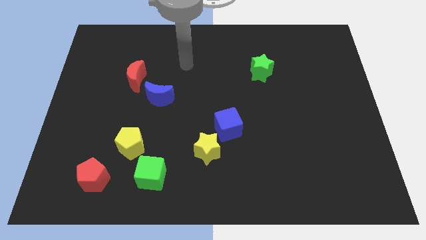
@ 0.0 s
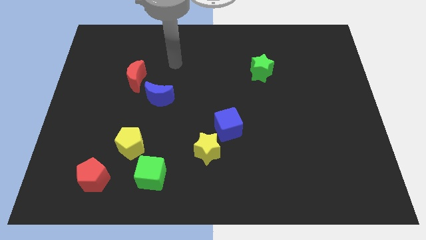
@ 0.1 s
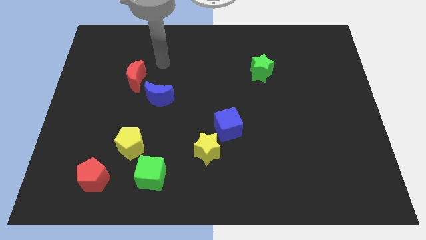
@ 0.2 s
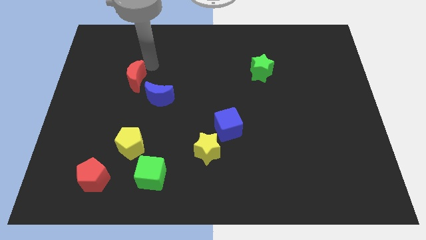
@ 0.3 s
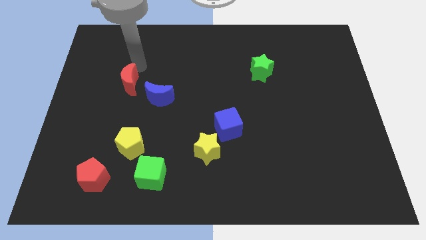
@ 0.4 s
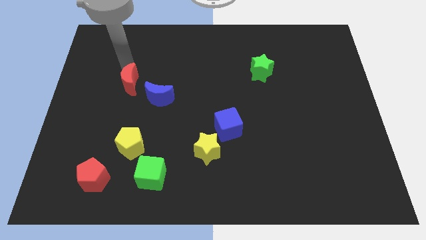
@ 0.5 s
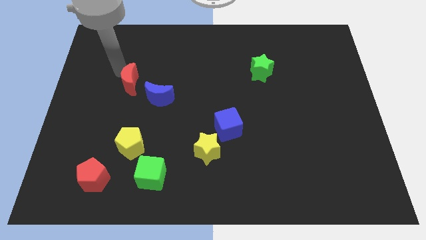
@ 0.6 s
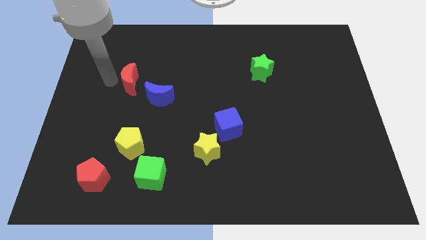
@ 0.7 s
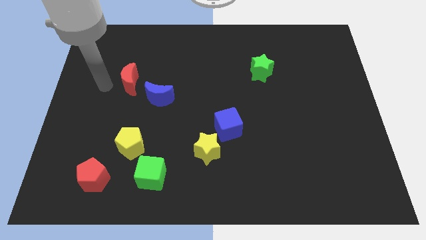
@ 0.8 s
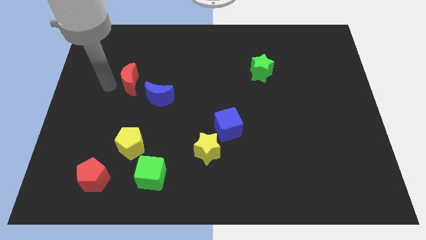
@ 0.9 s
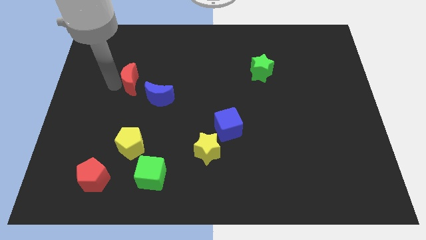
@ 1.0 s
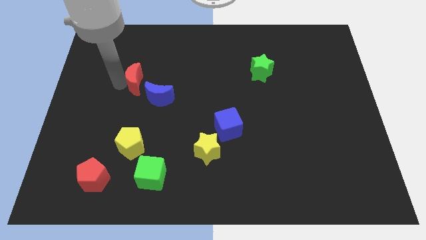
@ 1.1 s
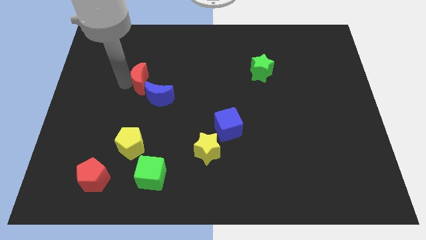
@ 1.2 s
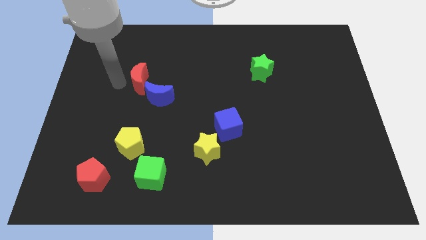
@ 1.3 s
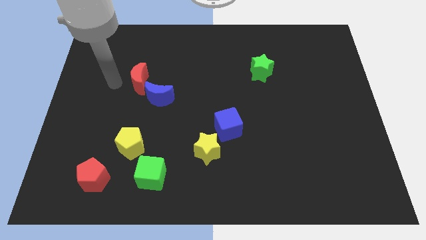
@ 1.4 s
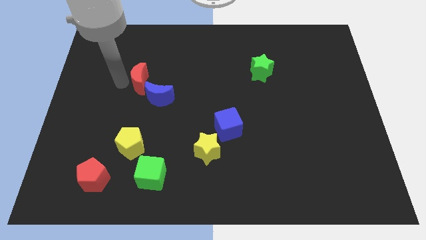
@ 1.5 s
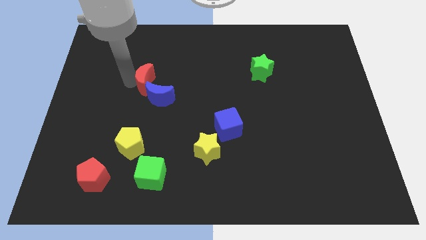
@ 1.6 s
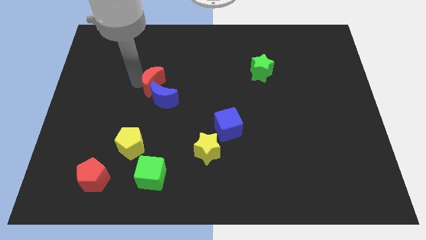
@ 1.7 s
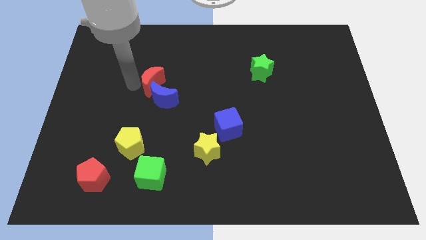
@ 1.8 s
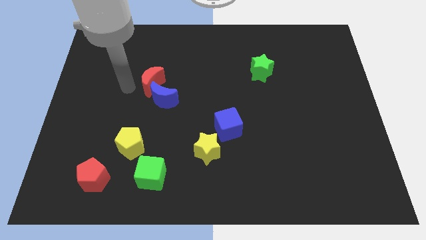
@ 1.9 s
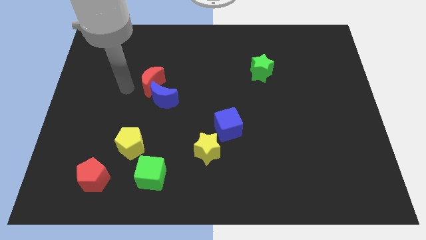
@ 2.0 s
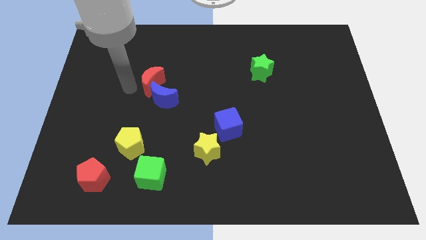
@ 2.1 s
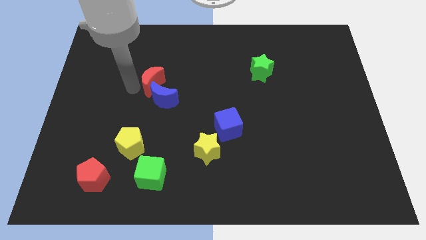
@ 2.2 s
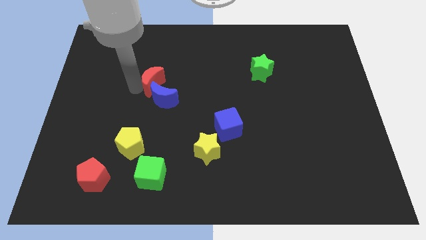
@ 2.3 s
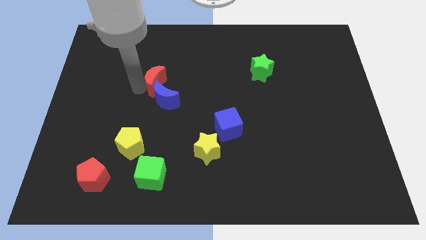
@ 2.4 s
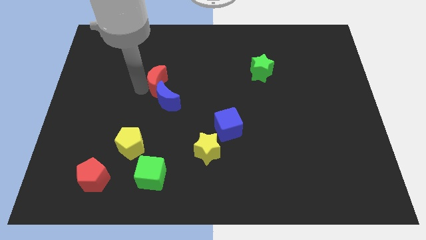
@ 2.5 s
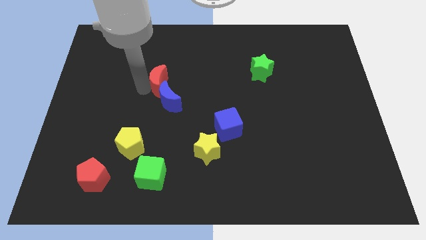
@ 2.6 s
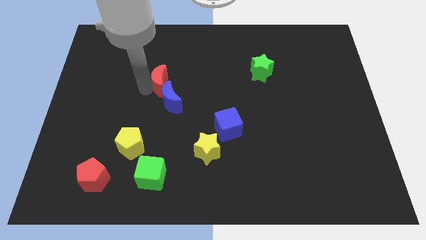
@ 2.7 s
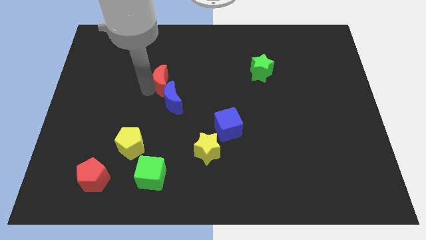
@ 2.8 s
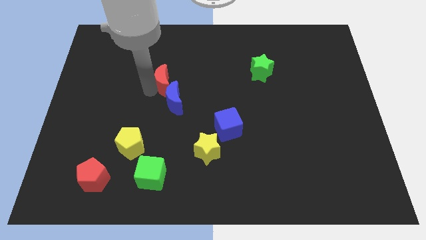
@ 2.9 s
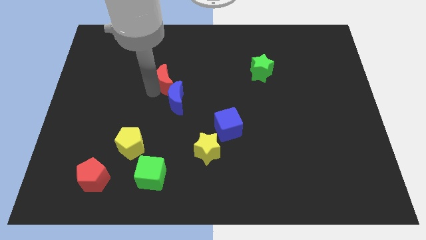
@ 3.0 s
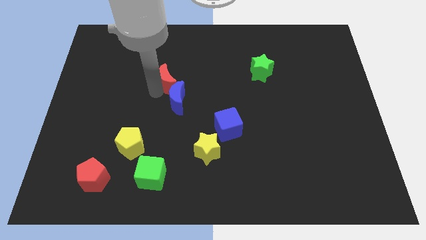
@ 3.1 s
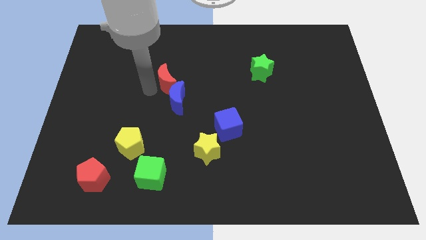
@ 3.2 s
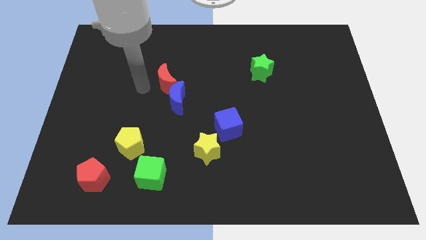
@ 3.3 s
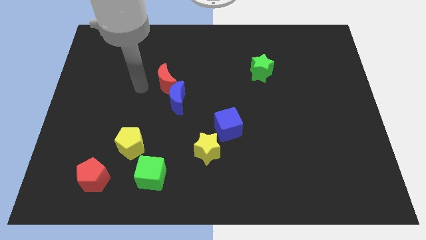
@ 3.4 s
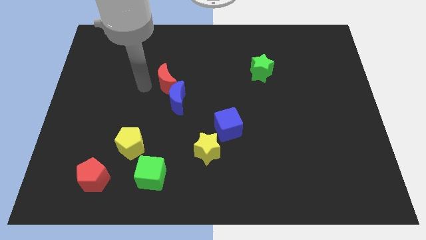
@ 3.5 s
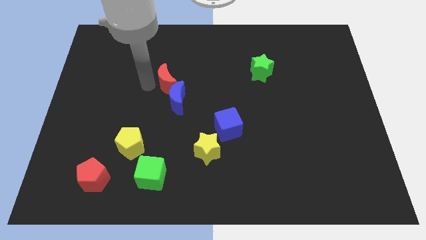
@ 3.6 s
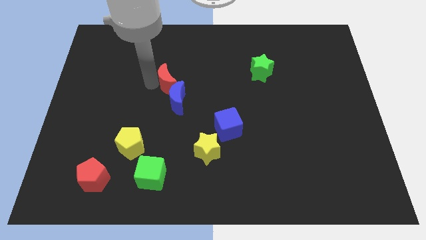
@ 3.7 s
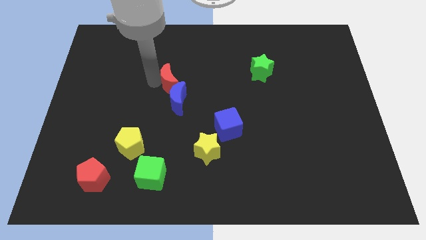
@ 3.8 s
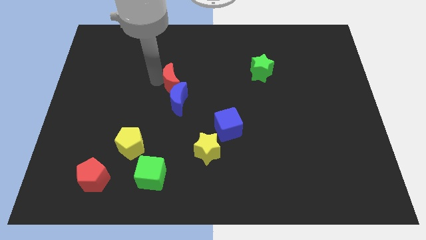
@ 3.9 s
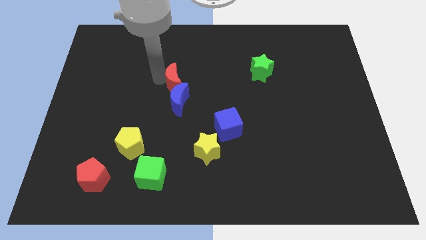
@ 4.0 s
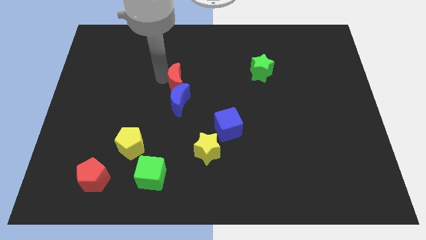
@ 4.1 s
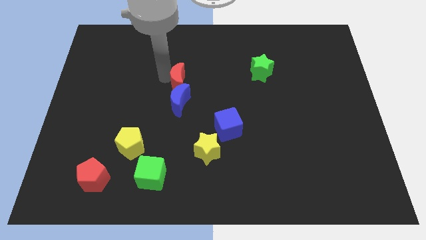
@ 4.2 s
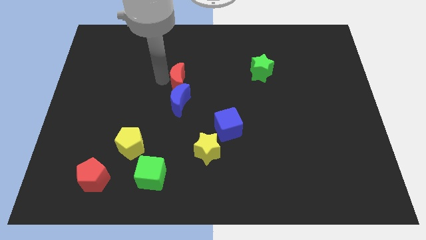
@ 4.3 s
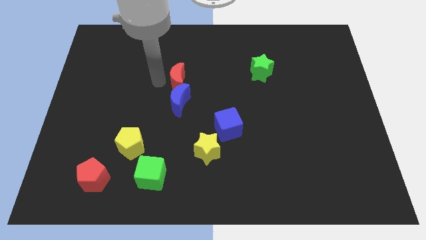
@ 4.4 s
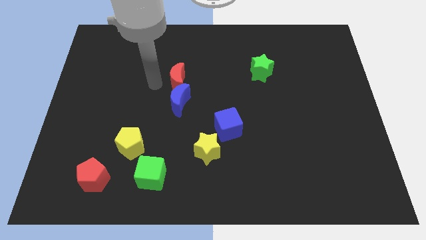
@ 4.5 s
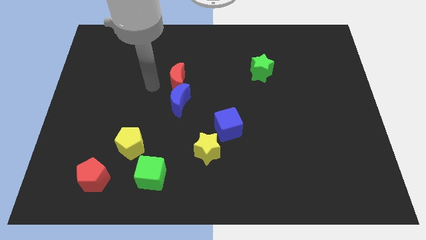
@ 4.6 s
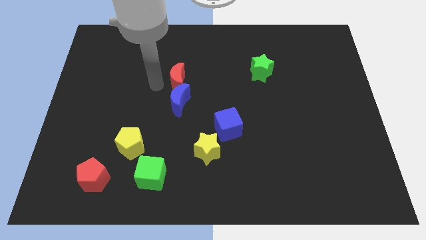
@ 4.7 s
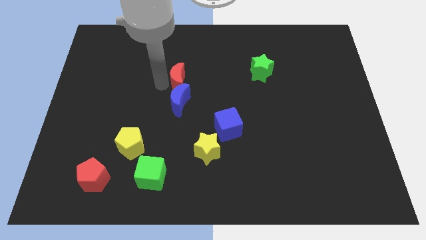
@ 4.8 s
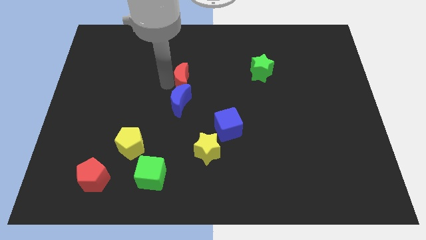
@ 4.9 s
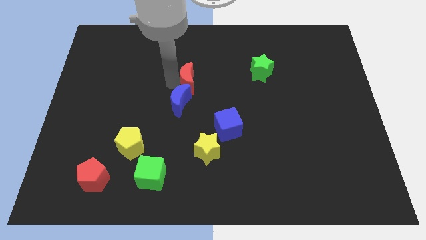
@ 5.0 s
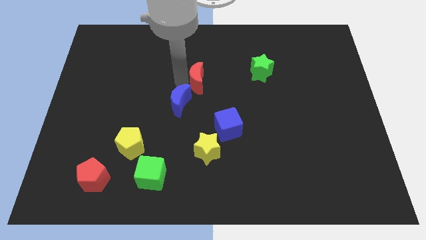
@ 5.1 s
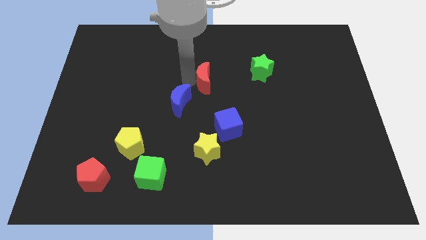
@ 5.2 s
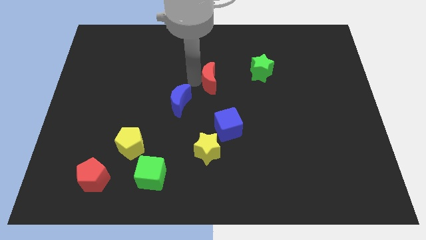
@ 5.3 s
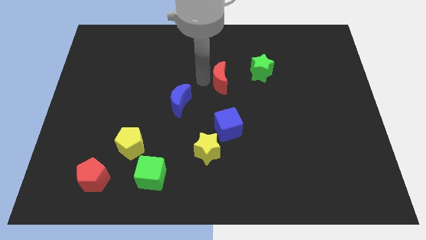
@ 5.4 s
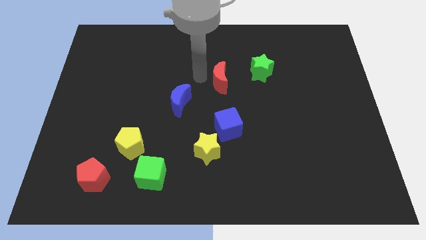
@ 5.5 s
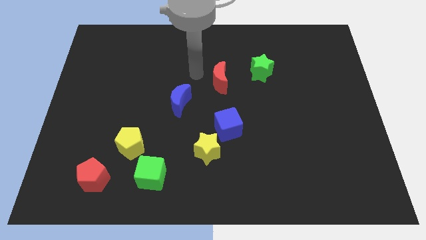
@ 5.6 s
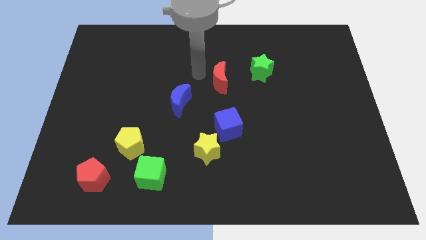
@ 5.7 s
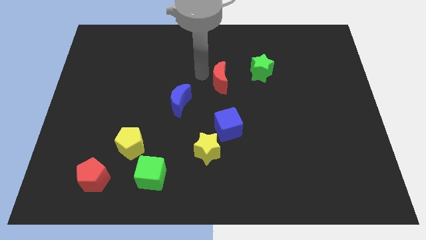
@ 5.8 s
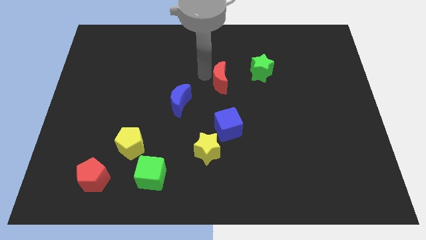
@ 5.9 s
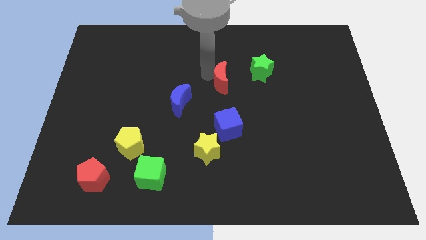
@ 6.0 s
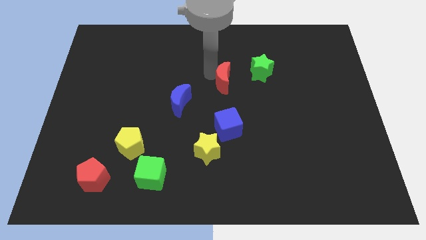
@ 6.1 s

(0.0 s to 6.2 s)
slide the red moon diagonally down and to the left of the green star

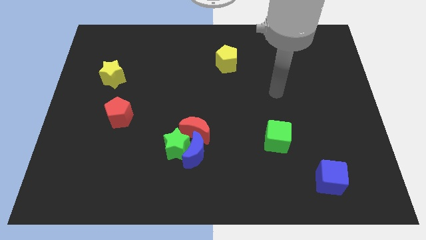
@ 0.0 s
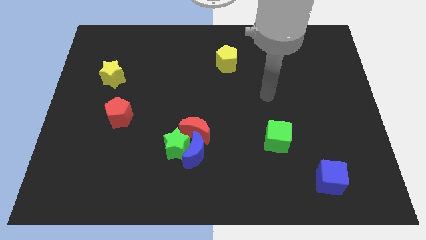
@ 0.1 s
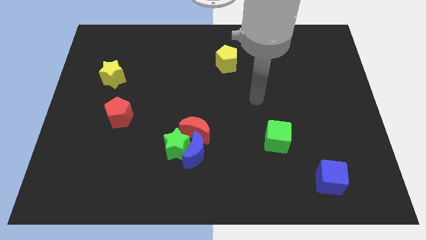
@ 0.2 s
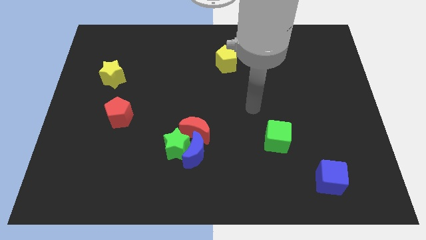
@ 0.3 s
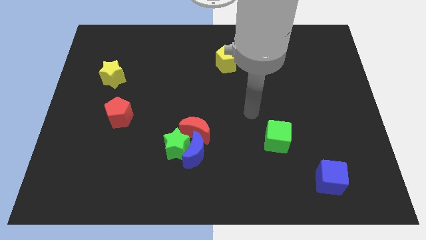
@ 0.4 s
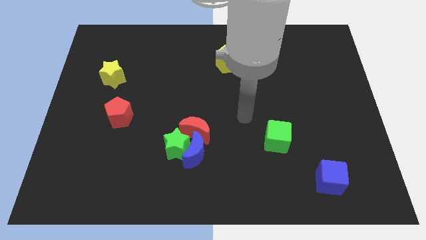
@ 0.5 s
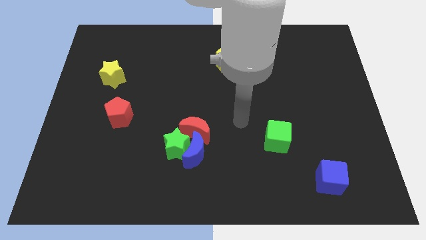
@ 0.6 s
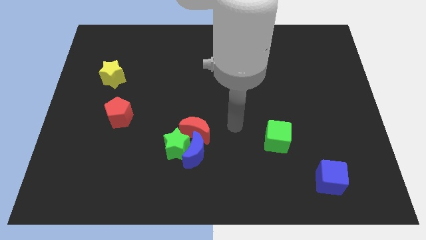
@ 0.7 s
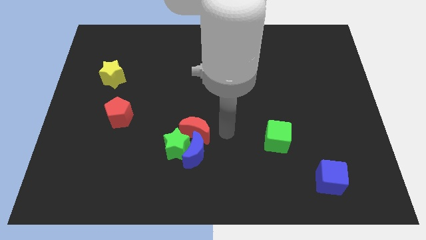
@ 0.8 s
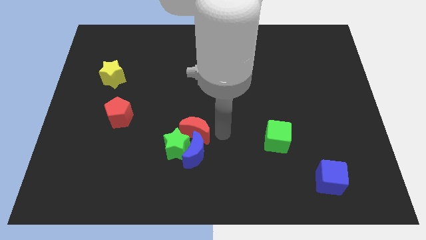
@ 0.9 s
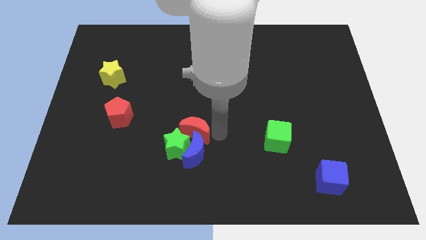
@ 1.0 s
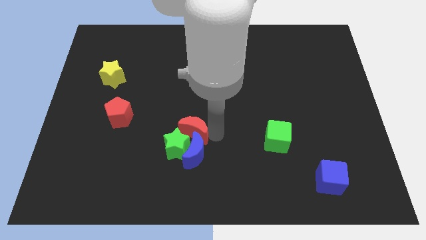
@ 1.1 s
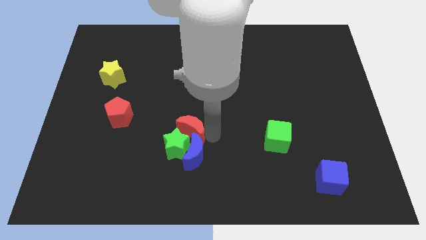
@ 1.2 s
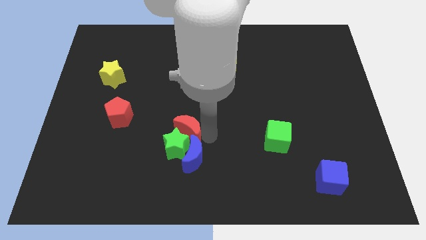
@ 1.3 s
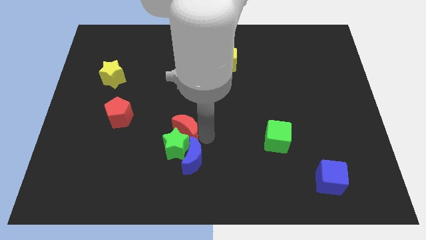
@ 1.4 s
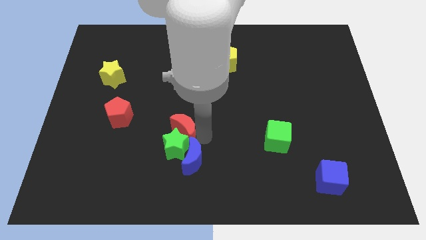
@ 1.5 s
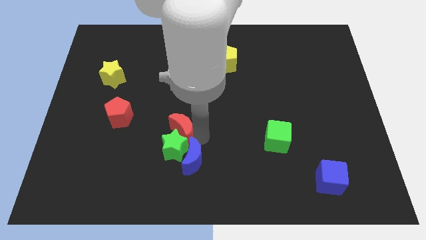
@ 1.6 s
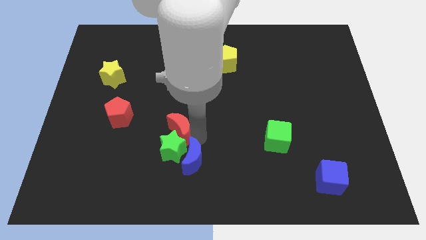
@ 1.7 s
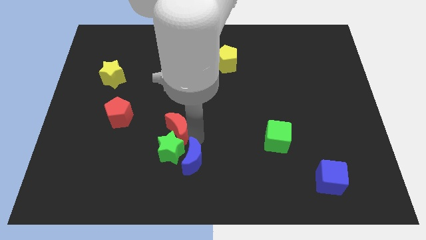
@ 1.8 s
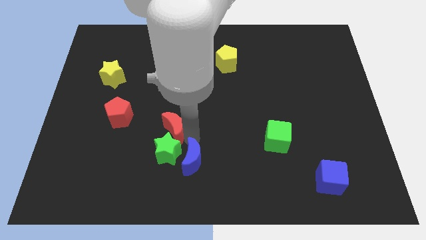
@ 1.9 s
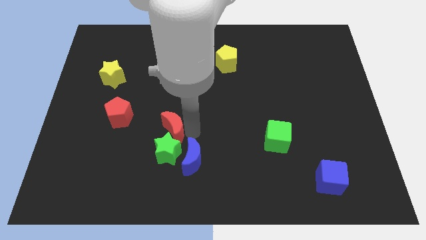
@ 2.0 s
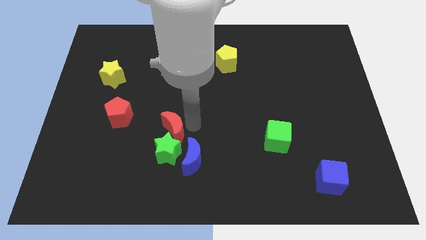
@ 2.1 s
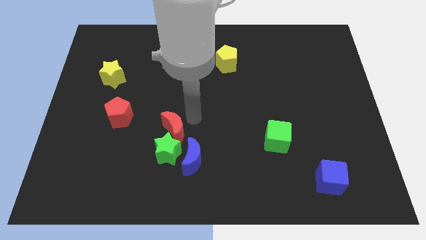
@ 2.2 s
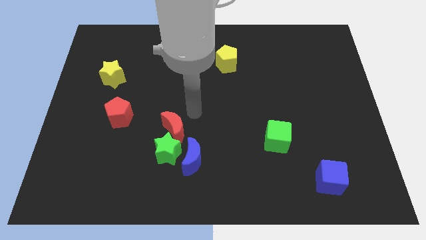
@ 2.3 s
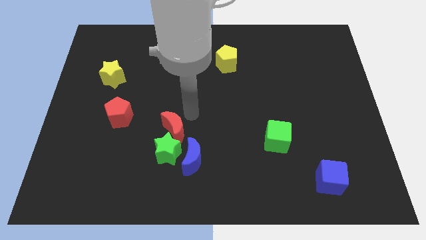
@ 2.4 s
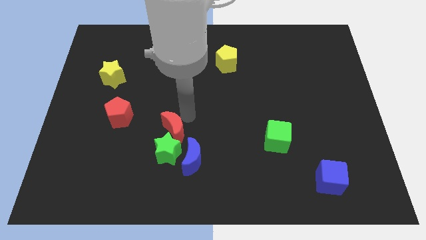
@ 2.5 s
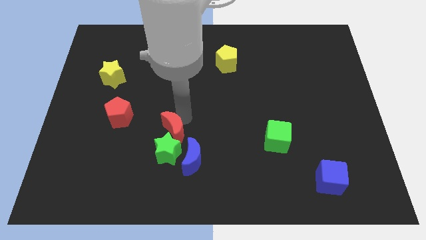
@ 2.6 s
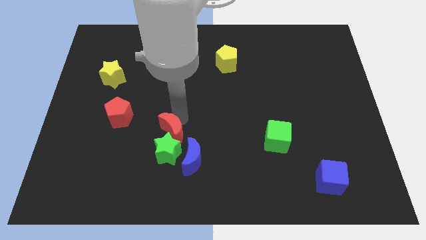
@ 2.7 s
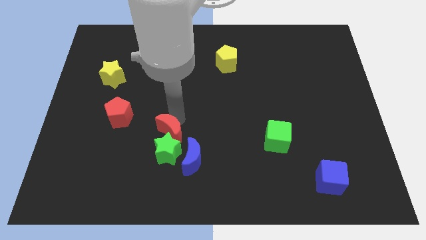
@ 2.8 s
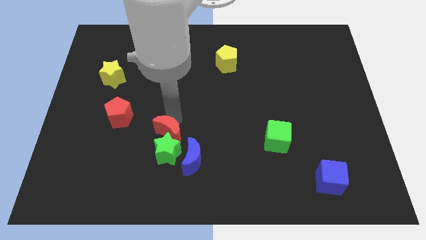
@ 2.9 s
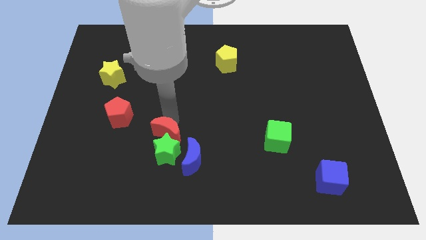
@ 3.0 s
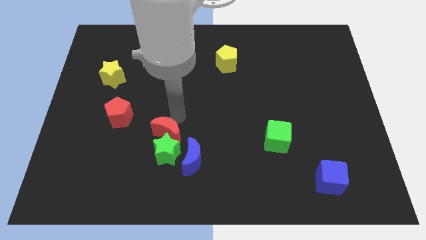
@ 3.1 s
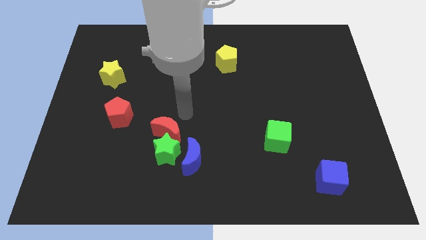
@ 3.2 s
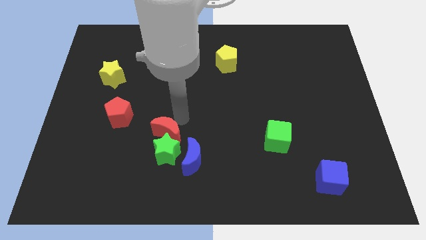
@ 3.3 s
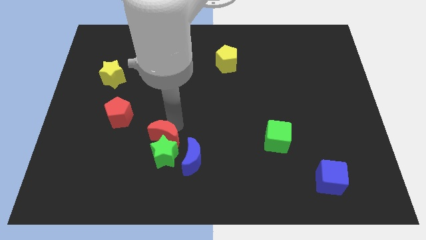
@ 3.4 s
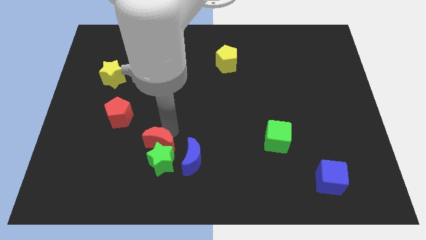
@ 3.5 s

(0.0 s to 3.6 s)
move the red moon to the left side of the blue moon
